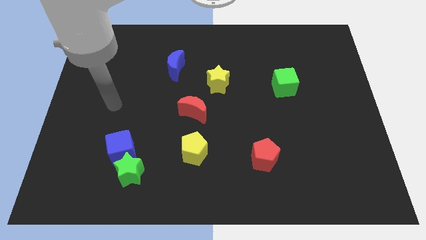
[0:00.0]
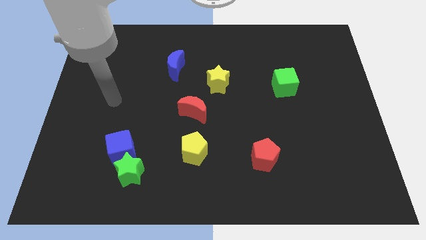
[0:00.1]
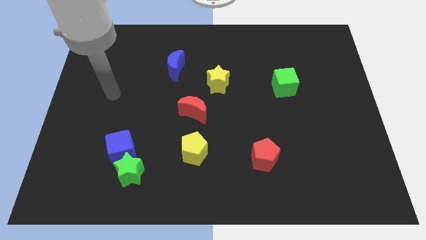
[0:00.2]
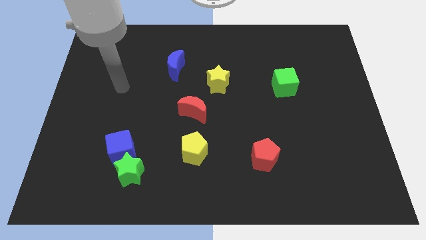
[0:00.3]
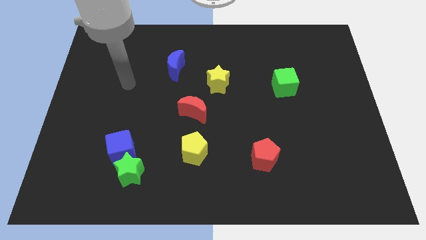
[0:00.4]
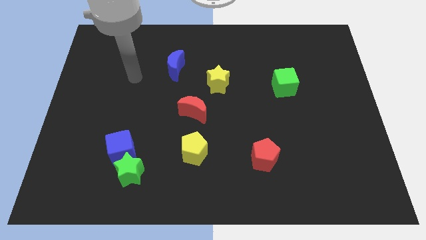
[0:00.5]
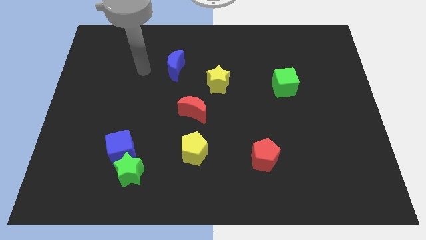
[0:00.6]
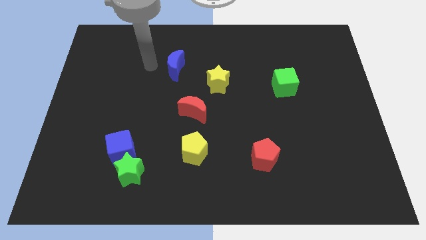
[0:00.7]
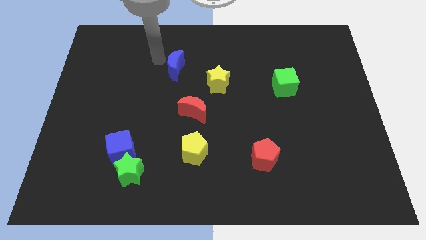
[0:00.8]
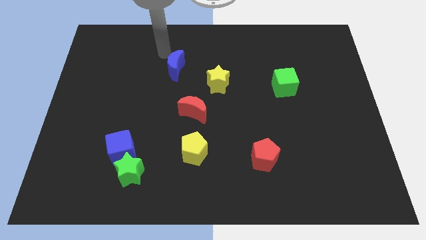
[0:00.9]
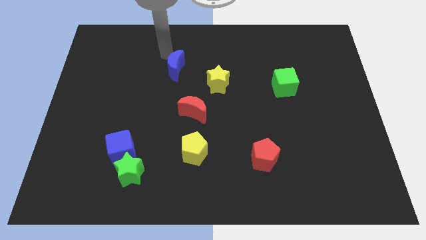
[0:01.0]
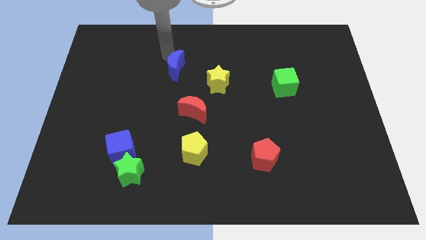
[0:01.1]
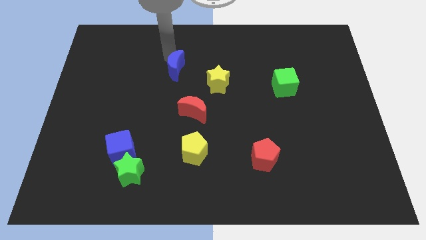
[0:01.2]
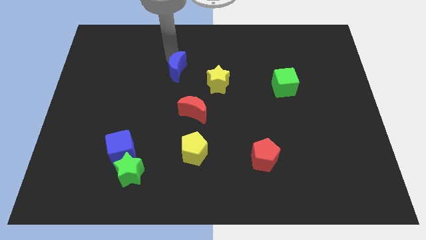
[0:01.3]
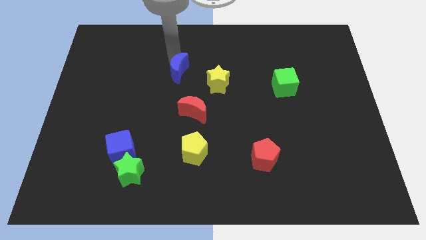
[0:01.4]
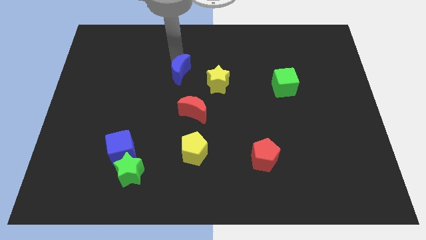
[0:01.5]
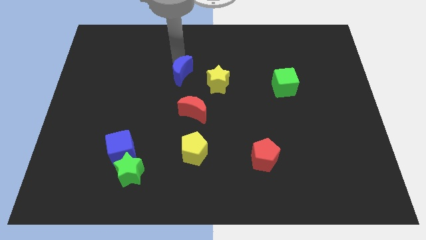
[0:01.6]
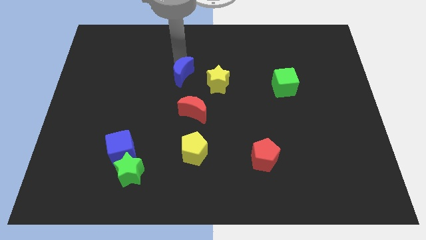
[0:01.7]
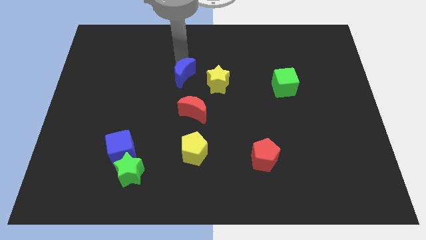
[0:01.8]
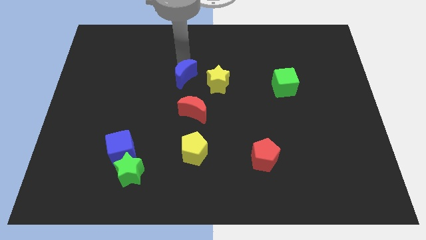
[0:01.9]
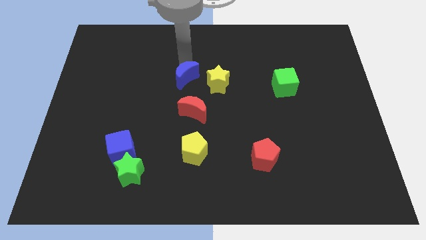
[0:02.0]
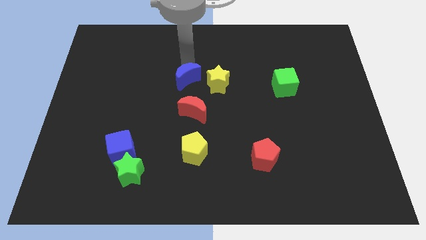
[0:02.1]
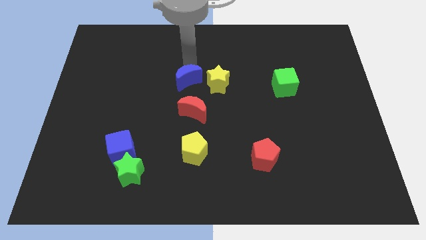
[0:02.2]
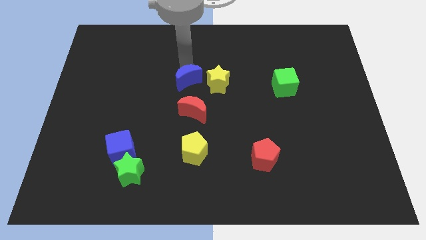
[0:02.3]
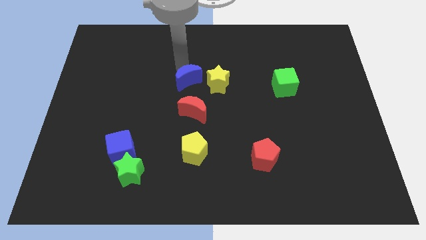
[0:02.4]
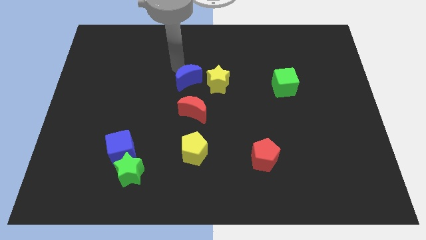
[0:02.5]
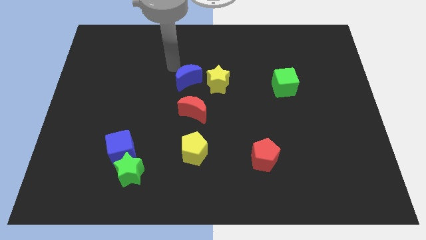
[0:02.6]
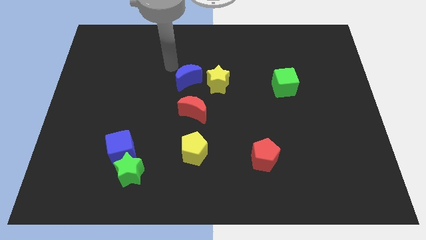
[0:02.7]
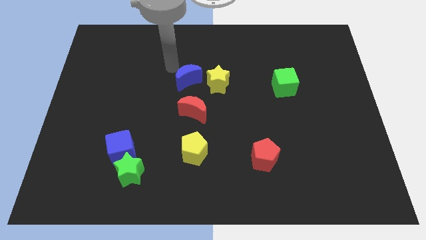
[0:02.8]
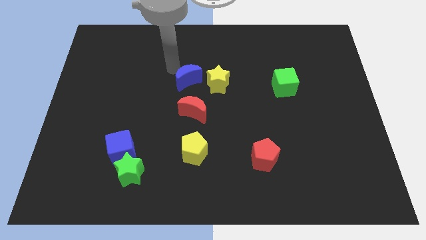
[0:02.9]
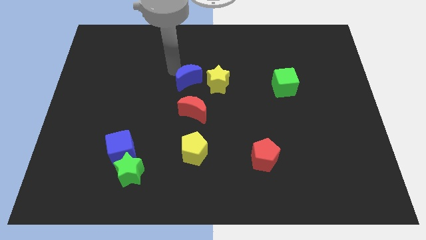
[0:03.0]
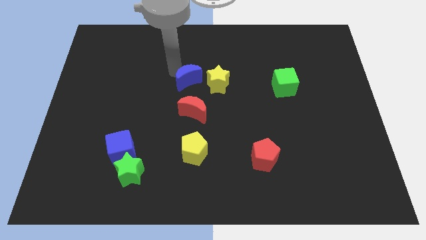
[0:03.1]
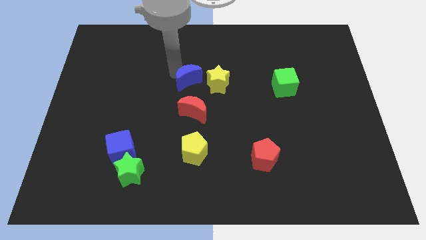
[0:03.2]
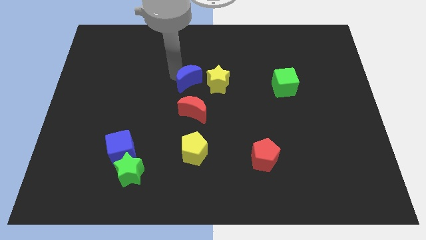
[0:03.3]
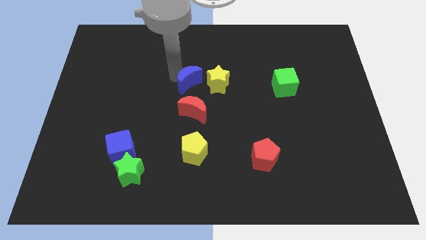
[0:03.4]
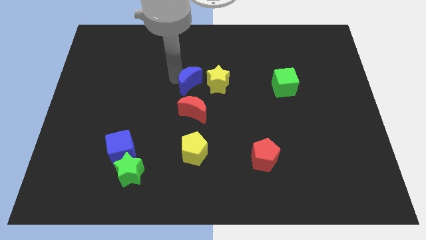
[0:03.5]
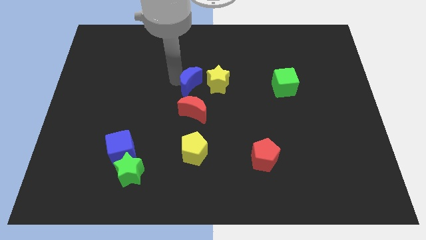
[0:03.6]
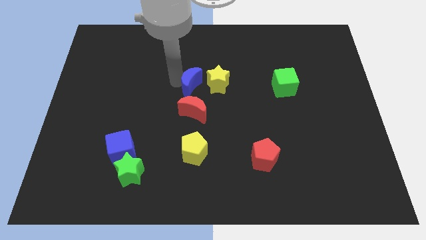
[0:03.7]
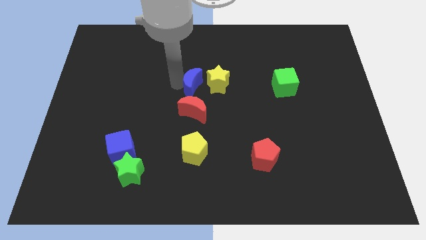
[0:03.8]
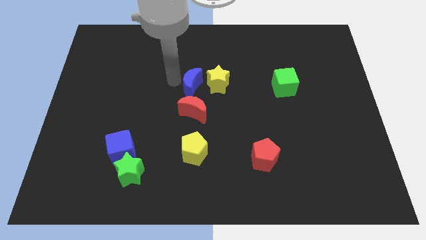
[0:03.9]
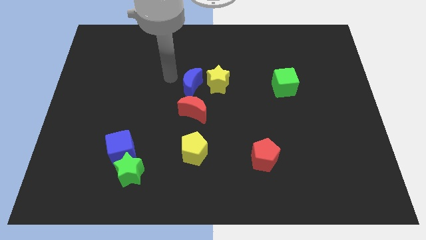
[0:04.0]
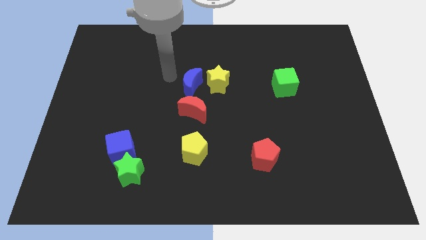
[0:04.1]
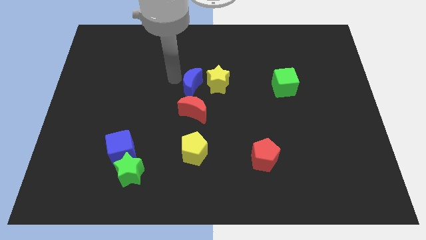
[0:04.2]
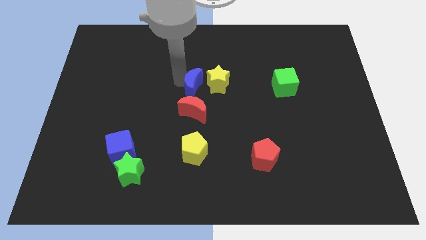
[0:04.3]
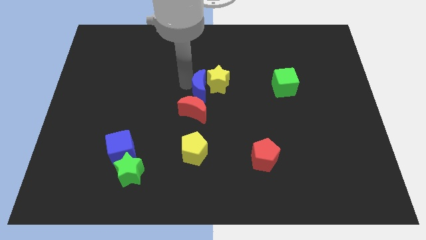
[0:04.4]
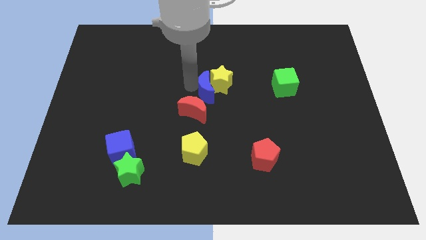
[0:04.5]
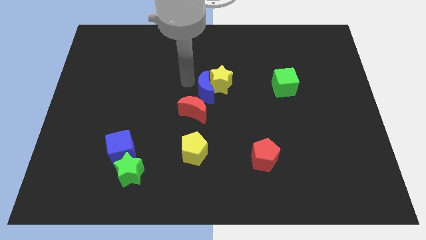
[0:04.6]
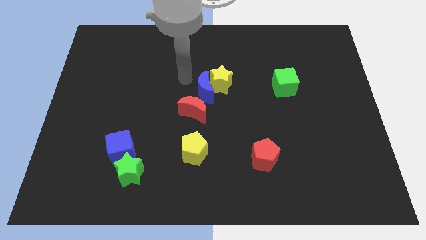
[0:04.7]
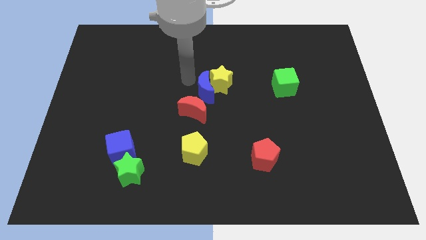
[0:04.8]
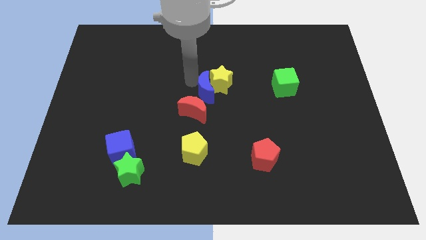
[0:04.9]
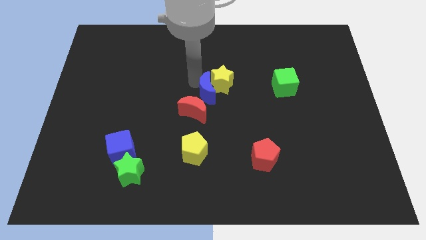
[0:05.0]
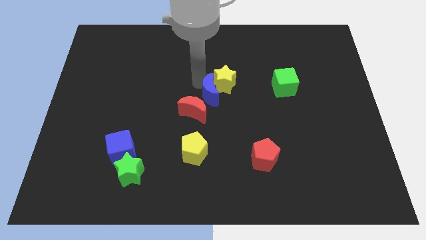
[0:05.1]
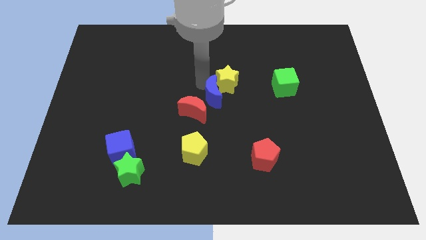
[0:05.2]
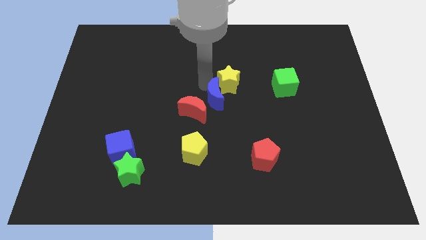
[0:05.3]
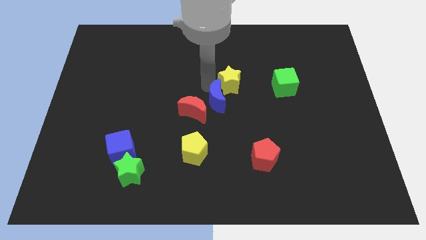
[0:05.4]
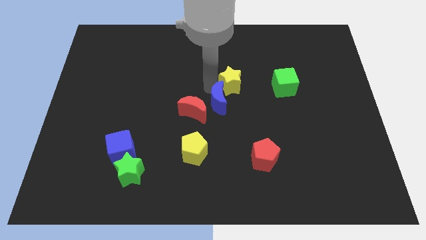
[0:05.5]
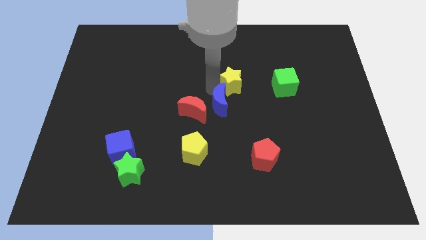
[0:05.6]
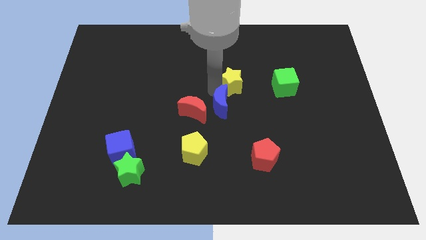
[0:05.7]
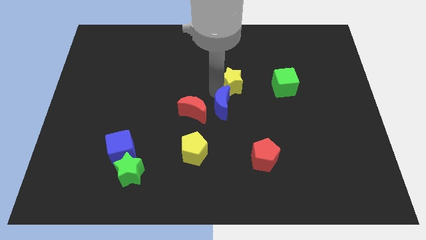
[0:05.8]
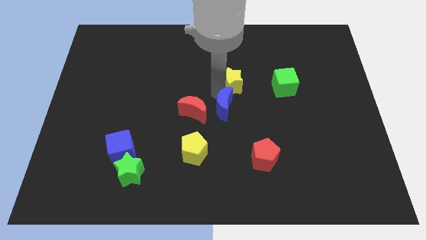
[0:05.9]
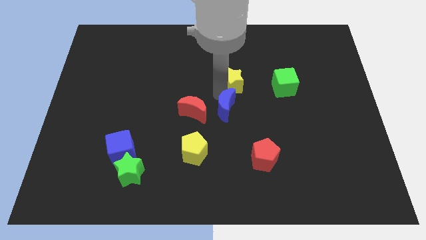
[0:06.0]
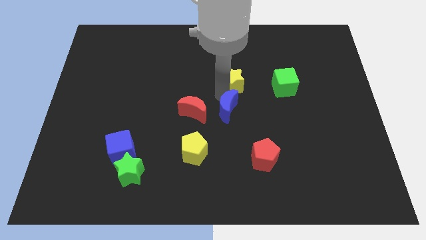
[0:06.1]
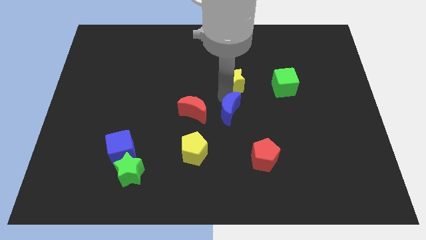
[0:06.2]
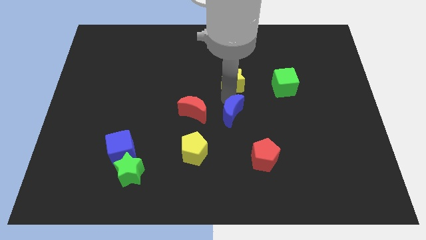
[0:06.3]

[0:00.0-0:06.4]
move the blue moon downwards and then right

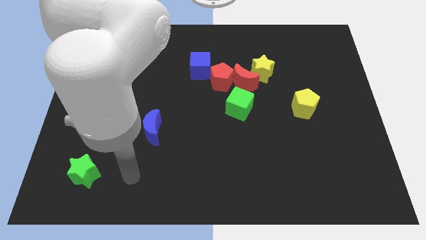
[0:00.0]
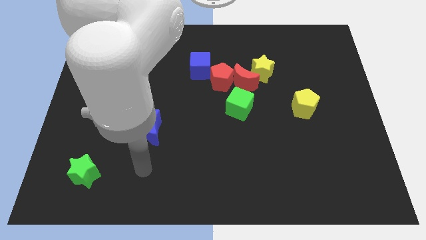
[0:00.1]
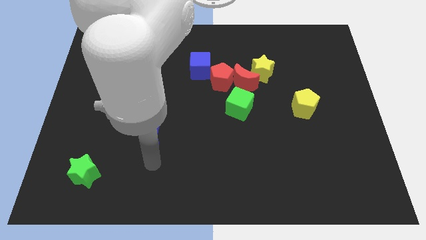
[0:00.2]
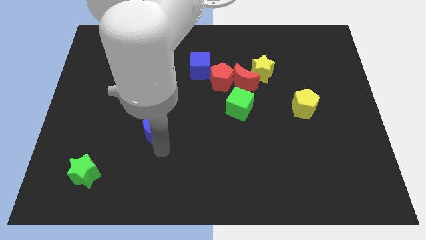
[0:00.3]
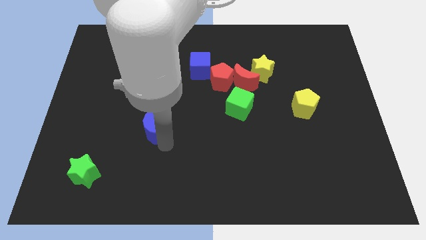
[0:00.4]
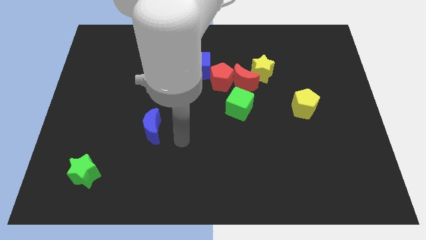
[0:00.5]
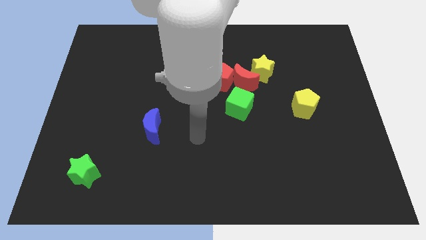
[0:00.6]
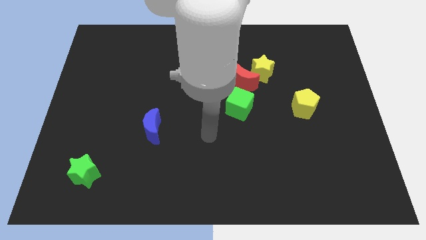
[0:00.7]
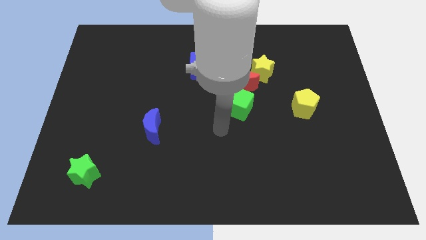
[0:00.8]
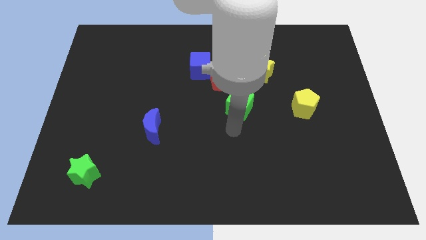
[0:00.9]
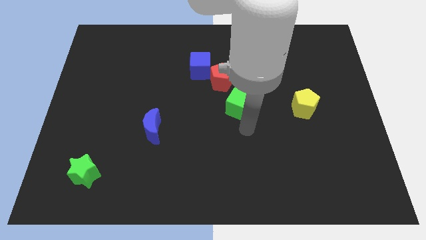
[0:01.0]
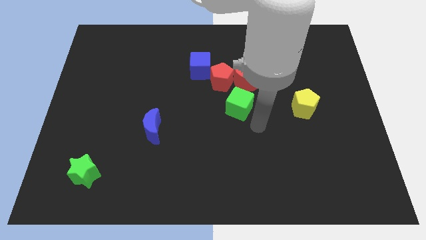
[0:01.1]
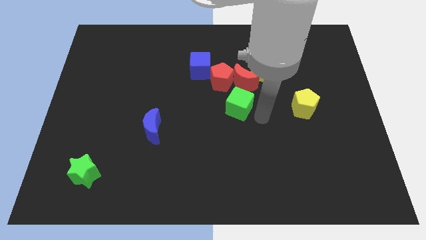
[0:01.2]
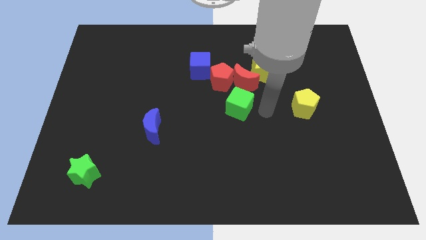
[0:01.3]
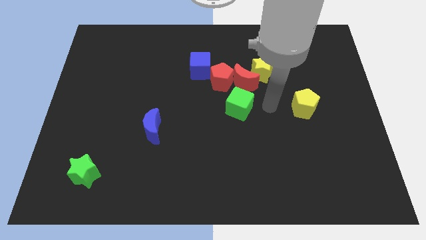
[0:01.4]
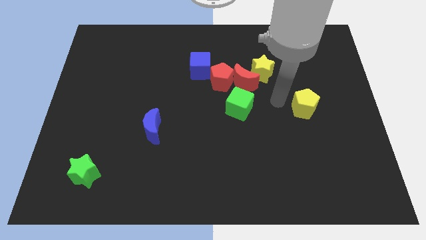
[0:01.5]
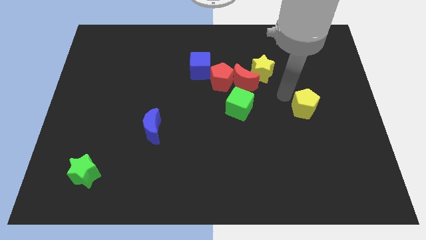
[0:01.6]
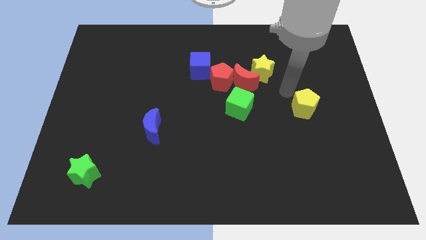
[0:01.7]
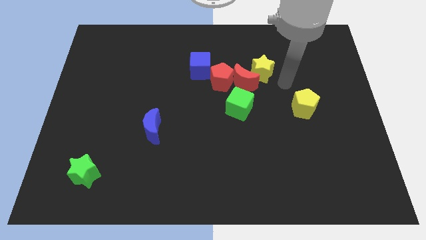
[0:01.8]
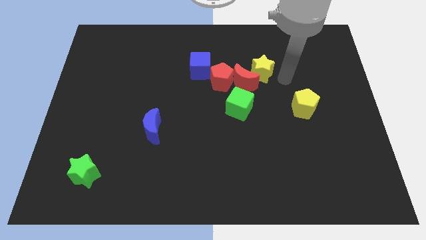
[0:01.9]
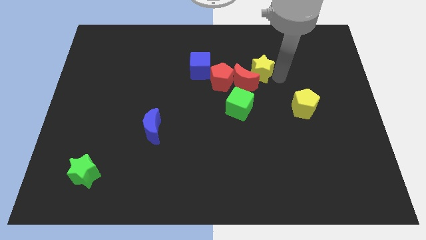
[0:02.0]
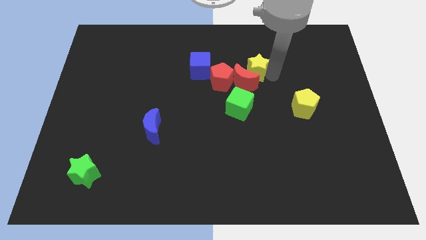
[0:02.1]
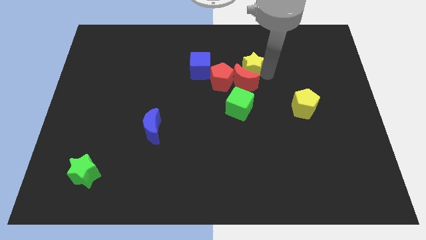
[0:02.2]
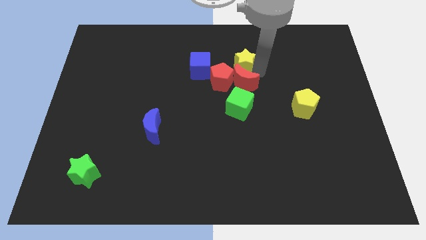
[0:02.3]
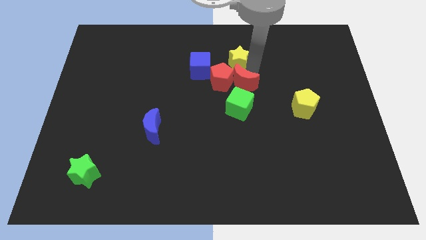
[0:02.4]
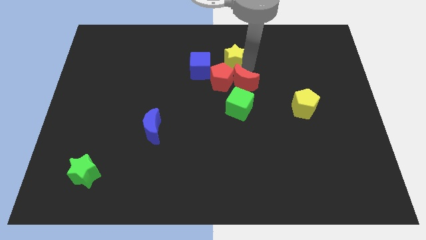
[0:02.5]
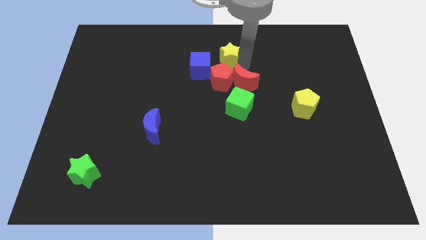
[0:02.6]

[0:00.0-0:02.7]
push the yellow star a little to the left
